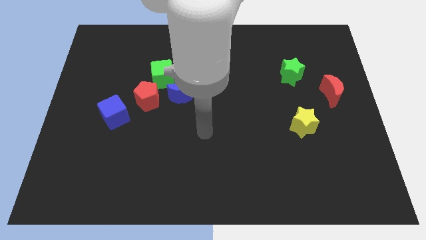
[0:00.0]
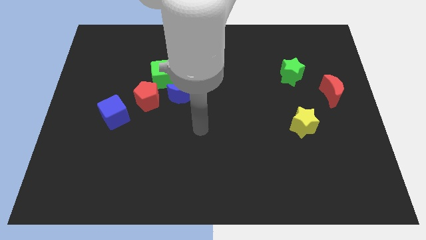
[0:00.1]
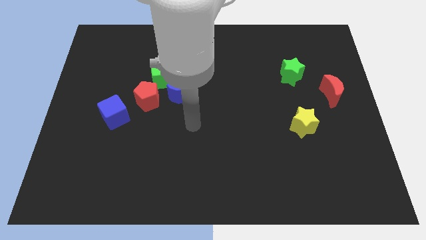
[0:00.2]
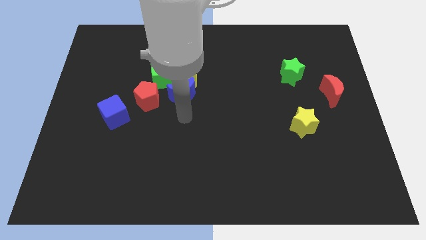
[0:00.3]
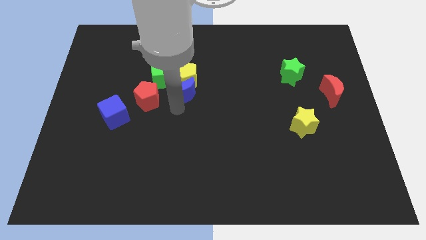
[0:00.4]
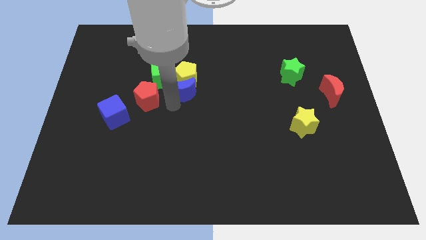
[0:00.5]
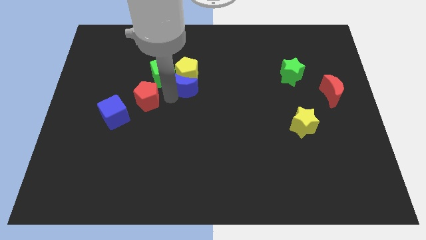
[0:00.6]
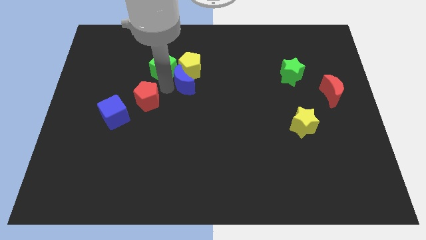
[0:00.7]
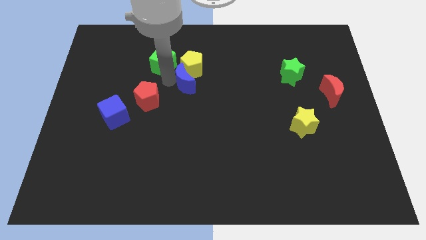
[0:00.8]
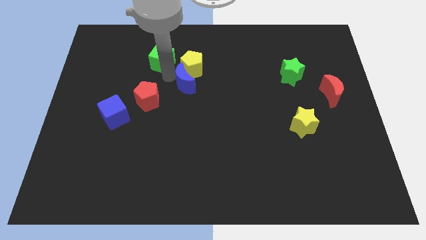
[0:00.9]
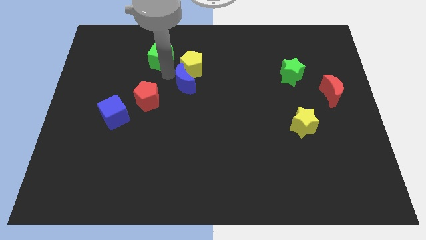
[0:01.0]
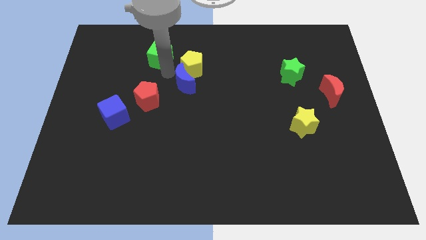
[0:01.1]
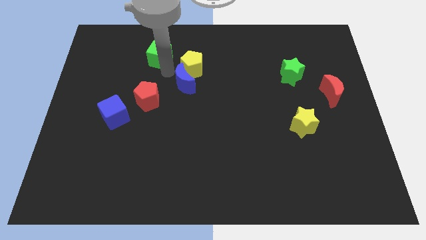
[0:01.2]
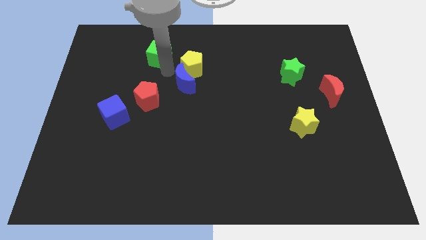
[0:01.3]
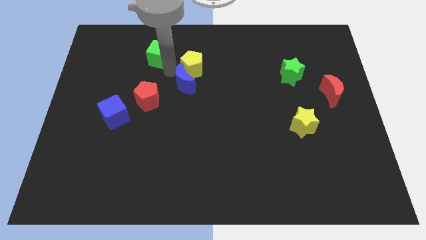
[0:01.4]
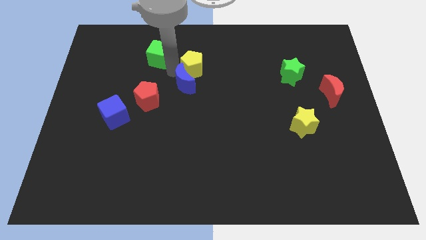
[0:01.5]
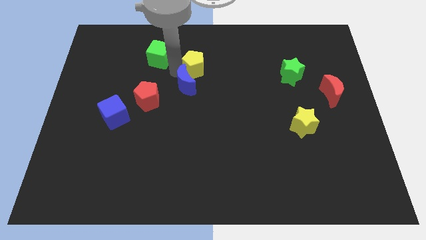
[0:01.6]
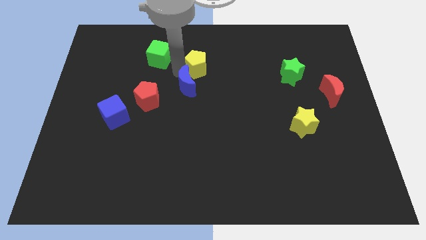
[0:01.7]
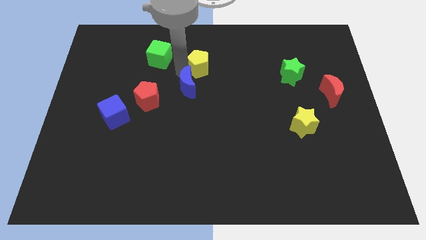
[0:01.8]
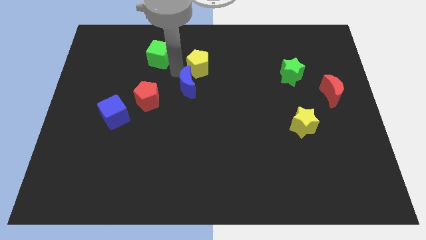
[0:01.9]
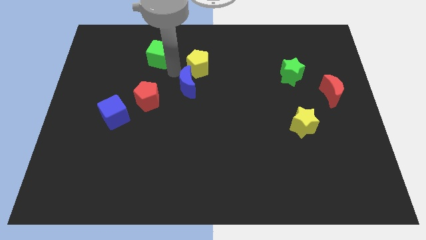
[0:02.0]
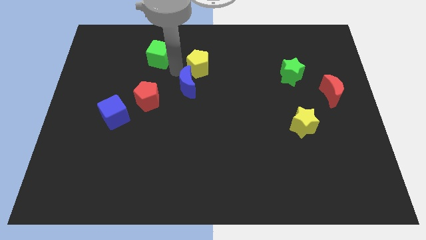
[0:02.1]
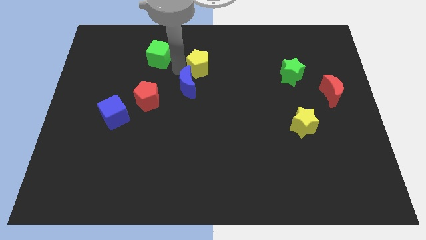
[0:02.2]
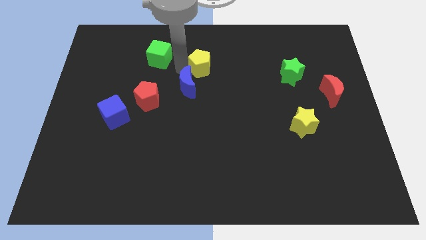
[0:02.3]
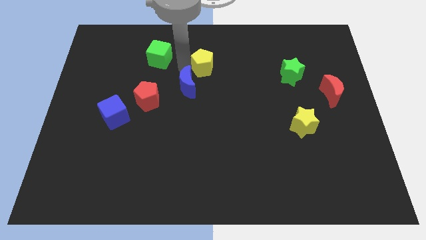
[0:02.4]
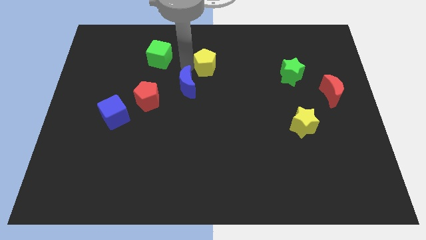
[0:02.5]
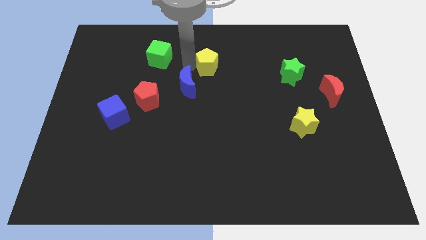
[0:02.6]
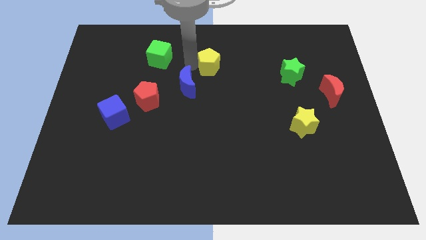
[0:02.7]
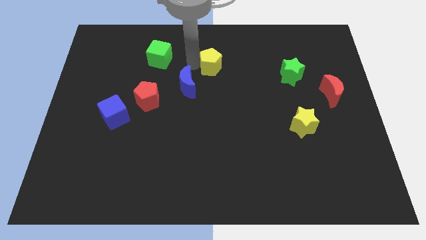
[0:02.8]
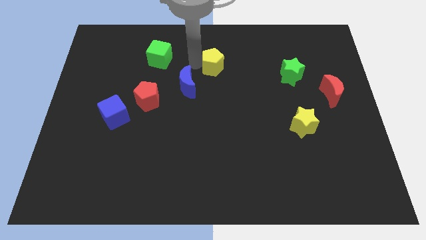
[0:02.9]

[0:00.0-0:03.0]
separate the yellow pentagon from the blue moon and green cube

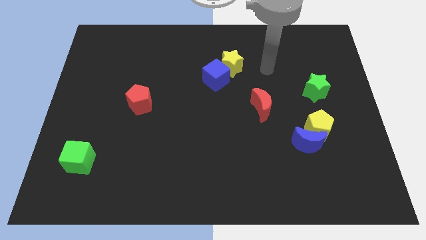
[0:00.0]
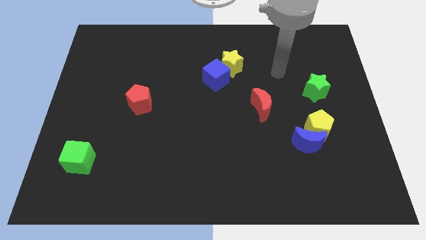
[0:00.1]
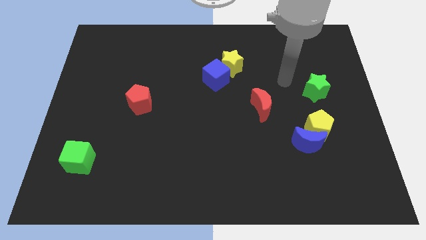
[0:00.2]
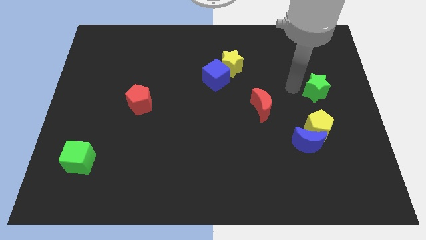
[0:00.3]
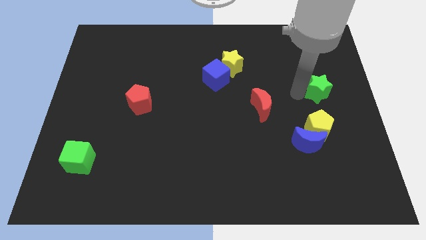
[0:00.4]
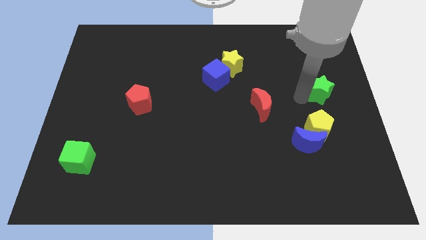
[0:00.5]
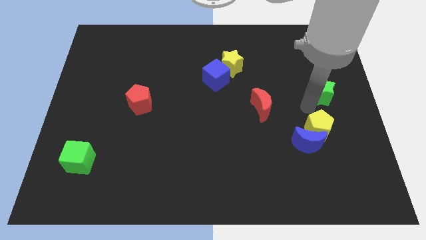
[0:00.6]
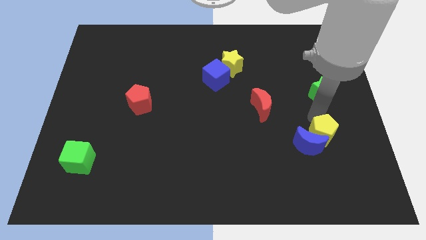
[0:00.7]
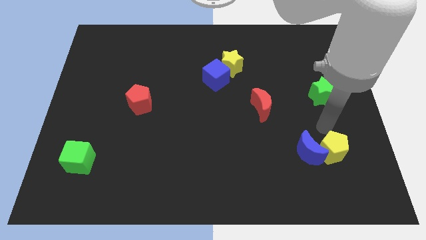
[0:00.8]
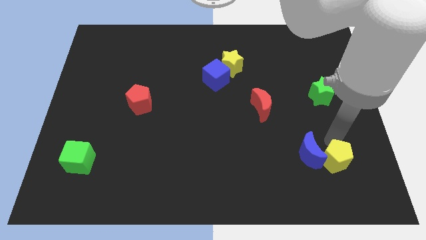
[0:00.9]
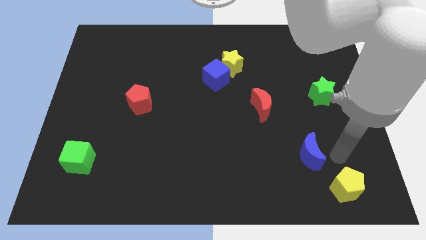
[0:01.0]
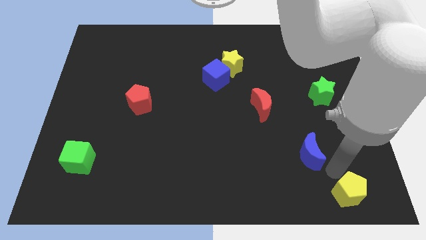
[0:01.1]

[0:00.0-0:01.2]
move the blue moon away from the yellow pentagon

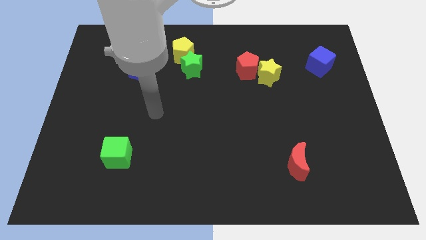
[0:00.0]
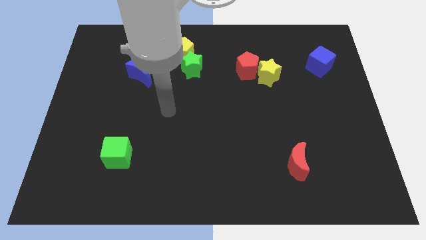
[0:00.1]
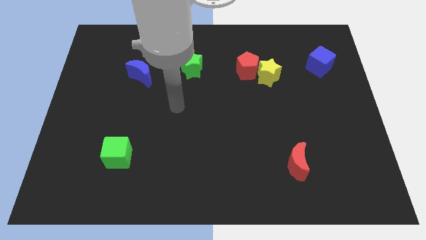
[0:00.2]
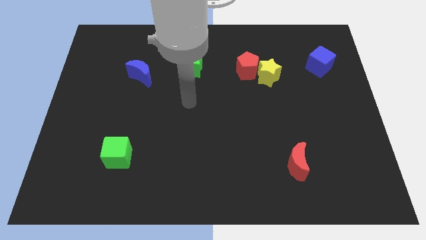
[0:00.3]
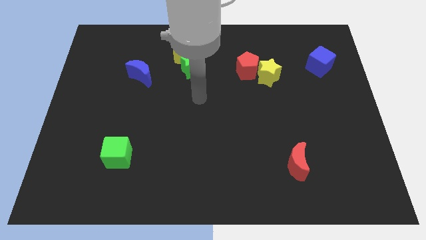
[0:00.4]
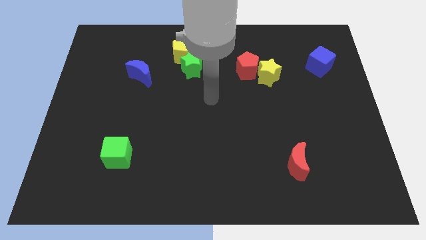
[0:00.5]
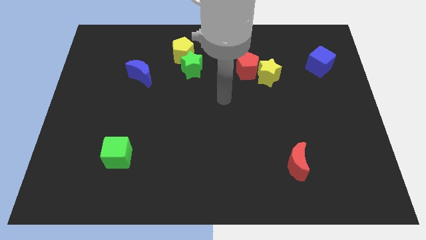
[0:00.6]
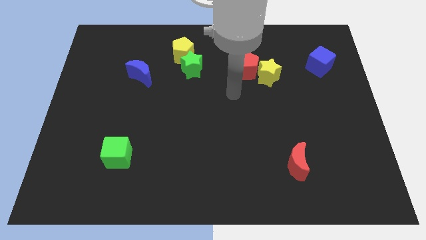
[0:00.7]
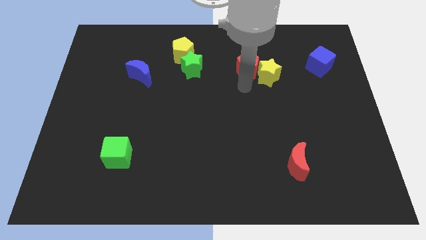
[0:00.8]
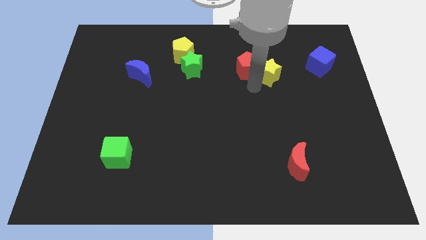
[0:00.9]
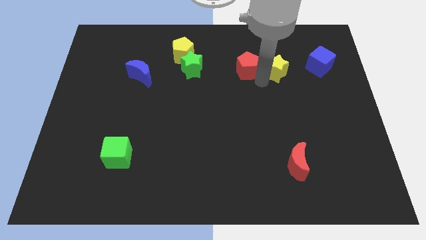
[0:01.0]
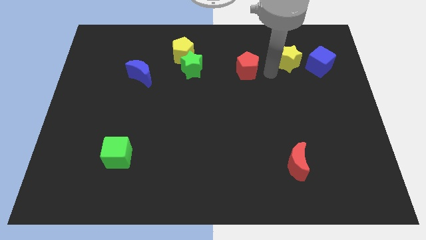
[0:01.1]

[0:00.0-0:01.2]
separate the red pentagon from the yellow star

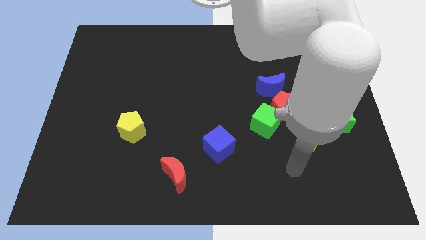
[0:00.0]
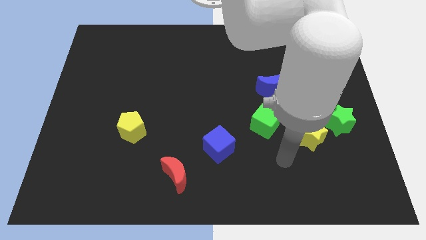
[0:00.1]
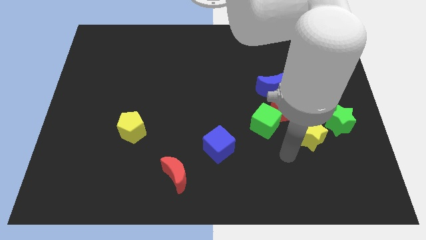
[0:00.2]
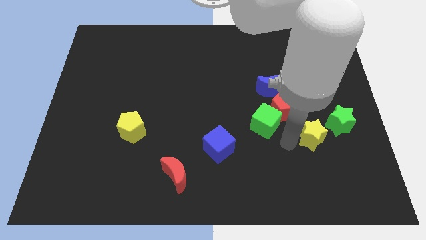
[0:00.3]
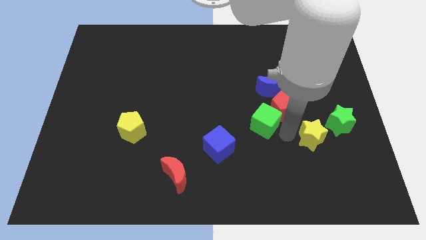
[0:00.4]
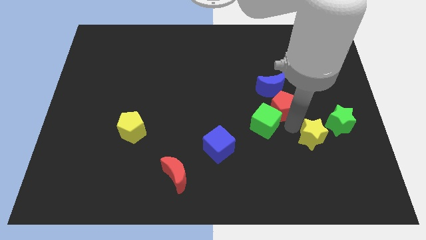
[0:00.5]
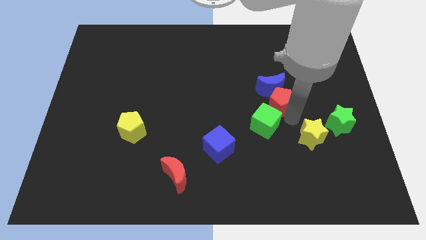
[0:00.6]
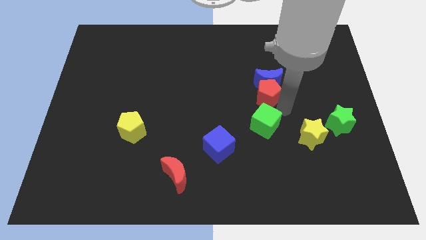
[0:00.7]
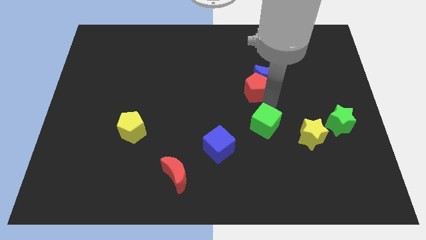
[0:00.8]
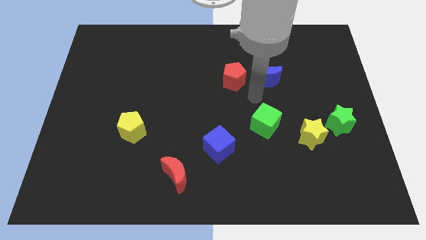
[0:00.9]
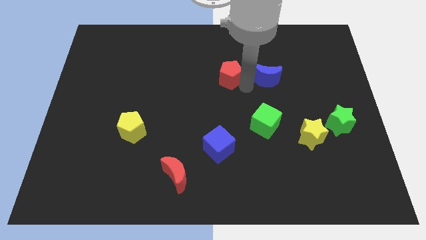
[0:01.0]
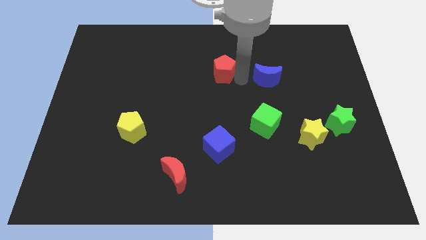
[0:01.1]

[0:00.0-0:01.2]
pull the blue moon apart from the red pentagon

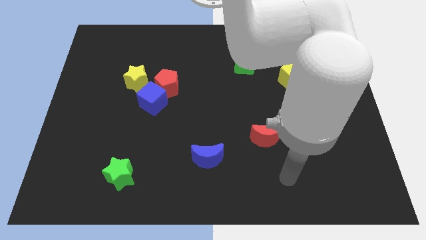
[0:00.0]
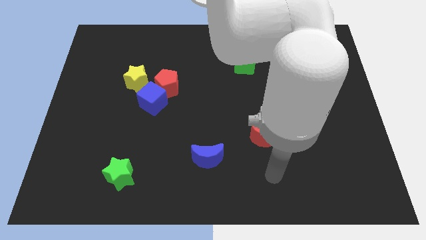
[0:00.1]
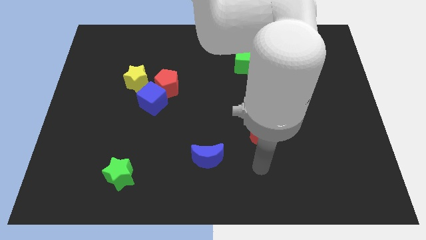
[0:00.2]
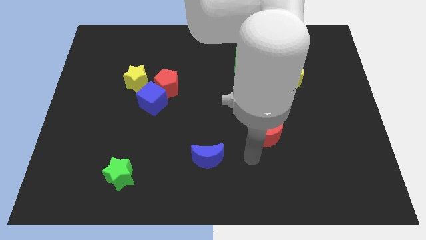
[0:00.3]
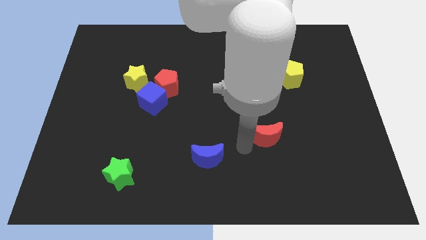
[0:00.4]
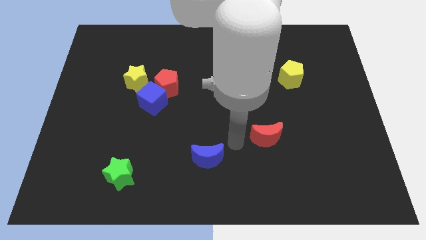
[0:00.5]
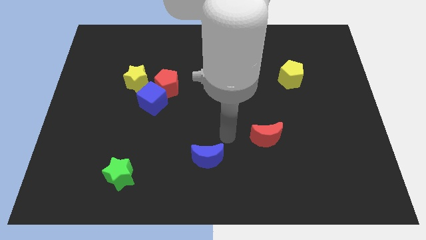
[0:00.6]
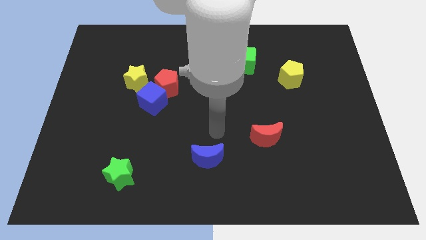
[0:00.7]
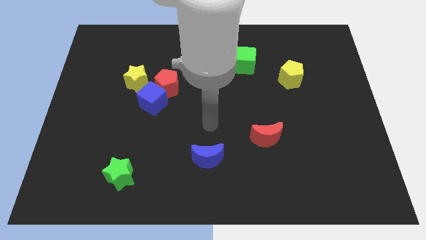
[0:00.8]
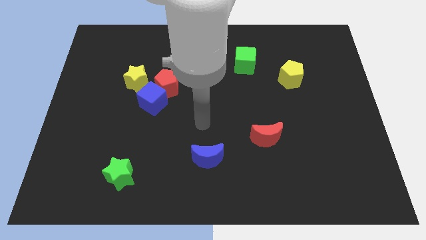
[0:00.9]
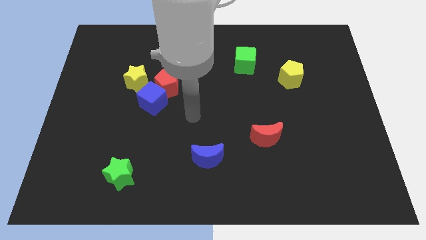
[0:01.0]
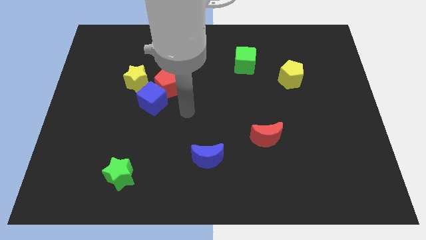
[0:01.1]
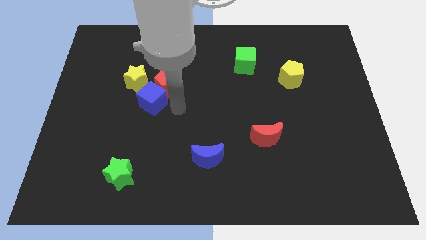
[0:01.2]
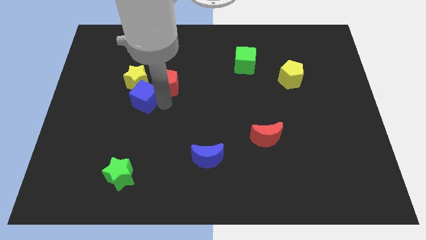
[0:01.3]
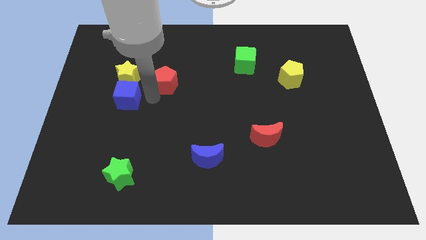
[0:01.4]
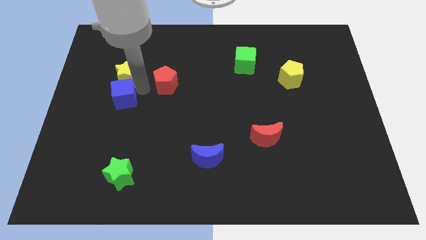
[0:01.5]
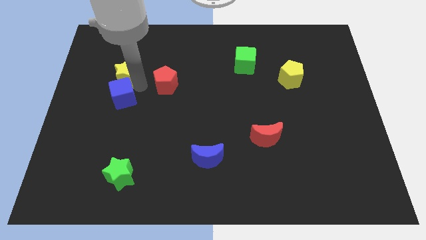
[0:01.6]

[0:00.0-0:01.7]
pull the red pentagon apart from the blue cube and yellow star

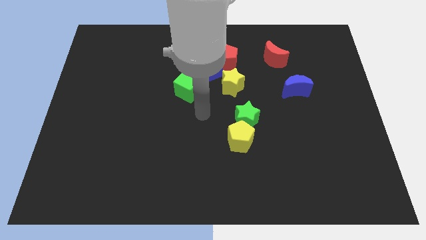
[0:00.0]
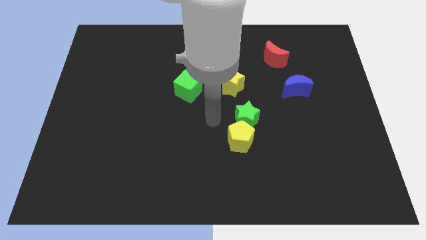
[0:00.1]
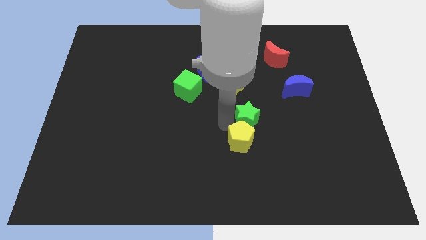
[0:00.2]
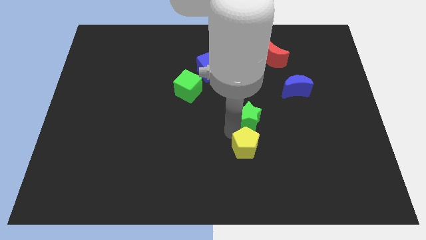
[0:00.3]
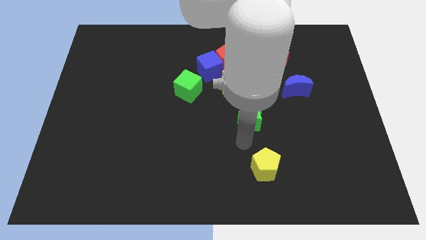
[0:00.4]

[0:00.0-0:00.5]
pull the green star apart from the yellow pentagon

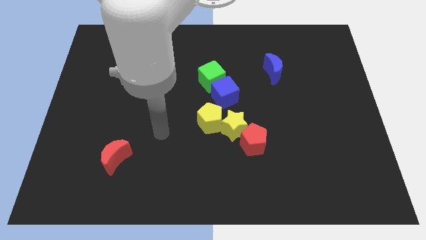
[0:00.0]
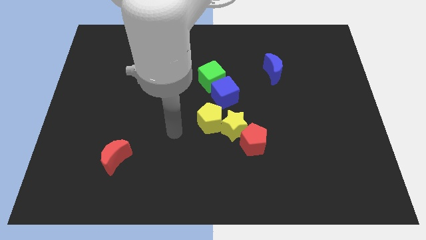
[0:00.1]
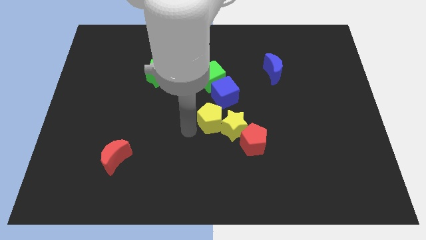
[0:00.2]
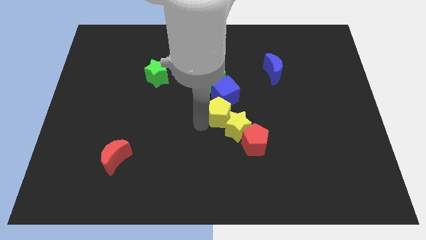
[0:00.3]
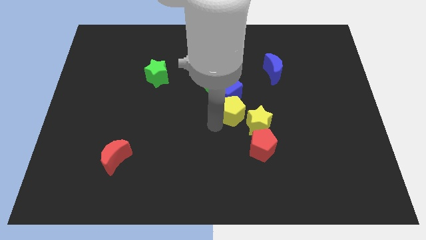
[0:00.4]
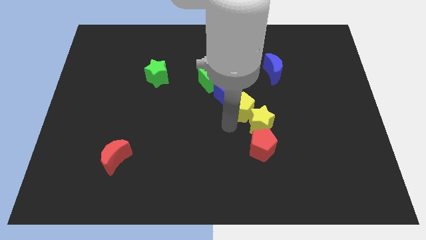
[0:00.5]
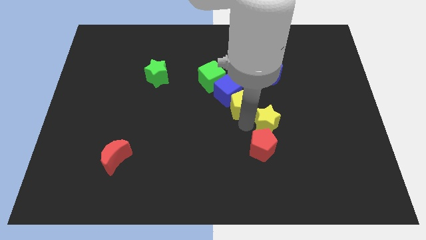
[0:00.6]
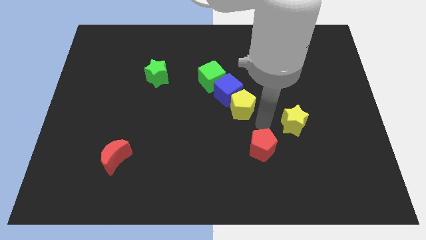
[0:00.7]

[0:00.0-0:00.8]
move the red pentagon away from the yellow star
